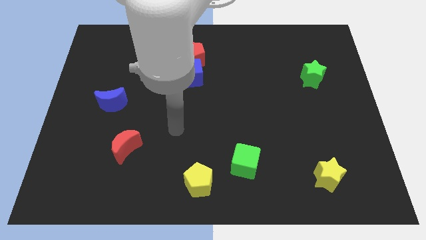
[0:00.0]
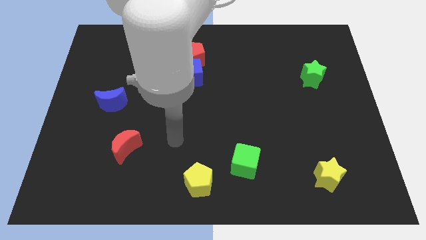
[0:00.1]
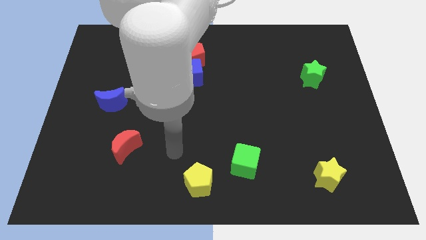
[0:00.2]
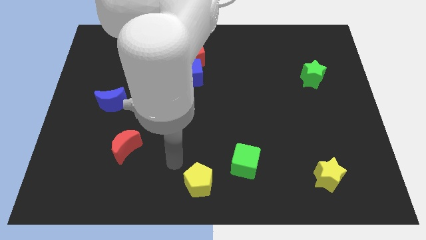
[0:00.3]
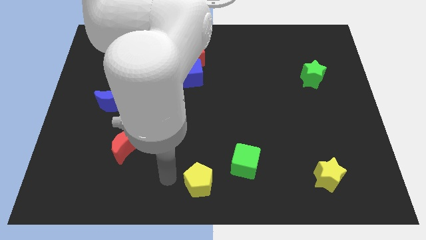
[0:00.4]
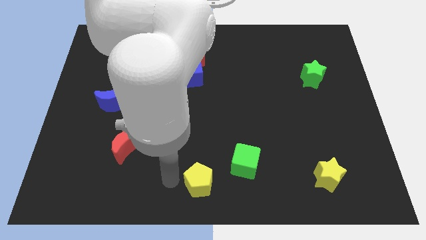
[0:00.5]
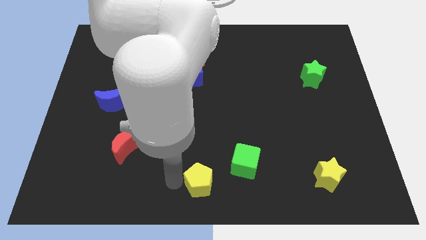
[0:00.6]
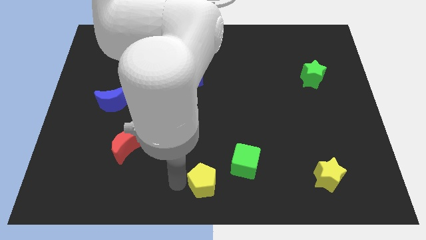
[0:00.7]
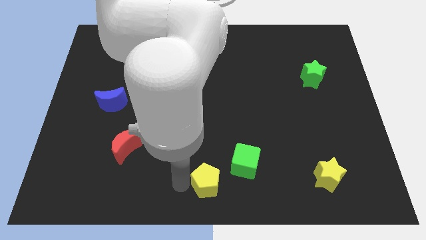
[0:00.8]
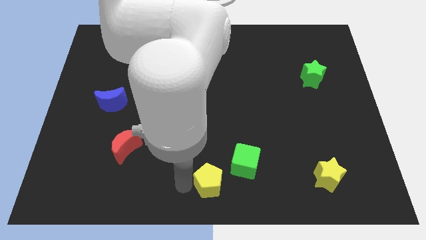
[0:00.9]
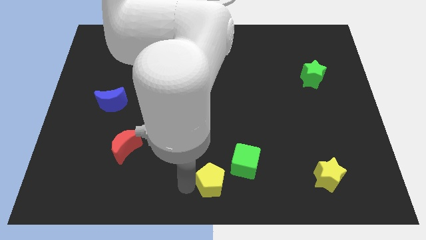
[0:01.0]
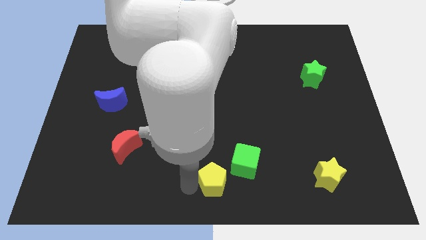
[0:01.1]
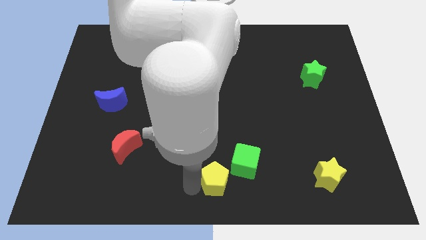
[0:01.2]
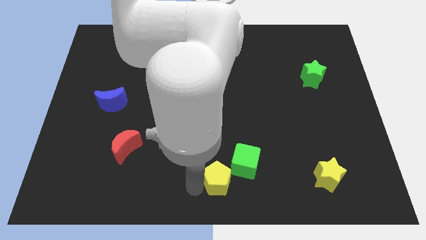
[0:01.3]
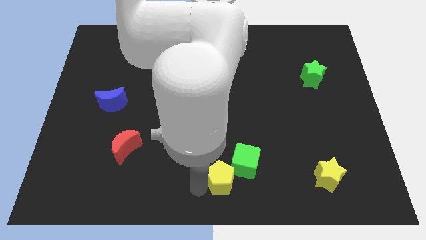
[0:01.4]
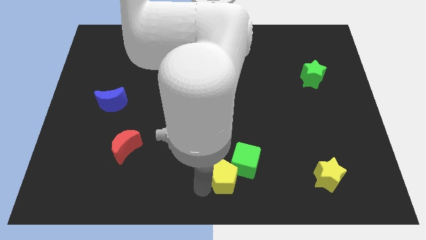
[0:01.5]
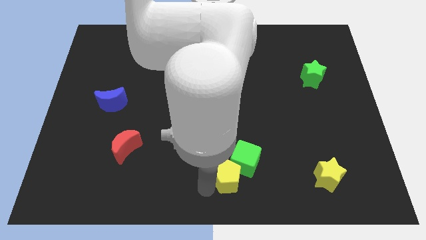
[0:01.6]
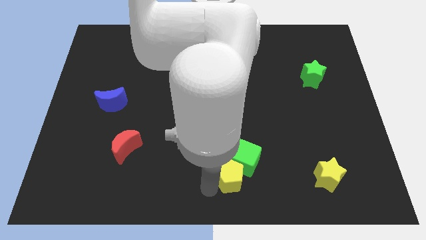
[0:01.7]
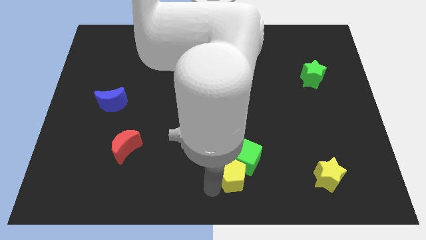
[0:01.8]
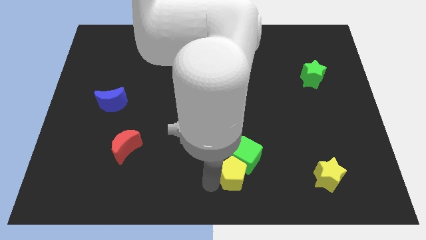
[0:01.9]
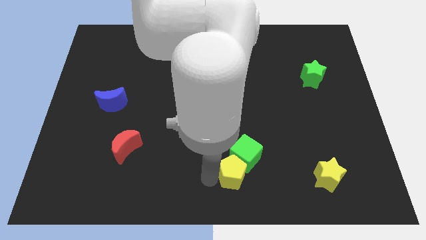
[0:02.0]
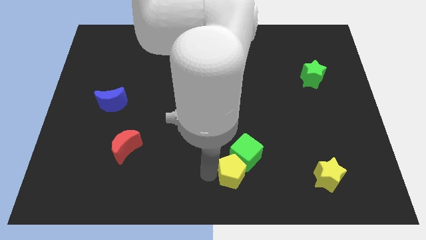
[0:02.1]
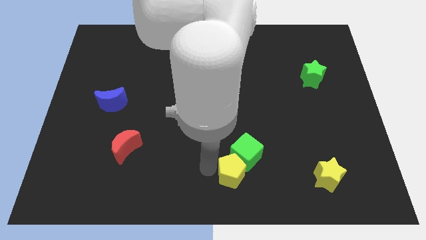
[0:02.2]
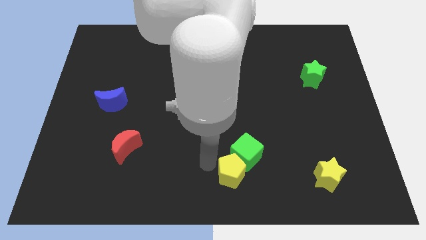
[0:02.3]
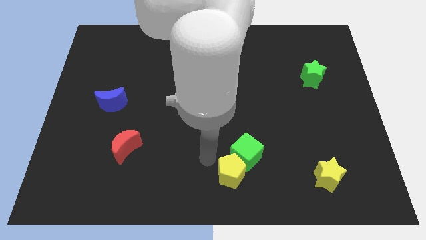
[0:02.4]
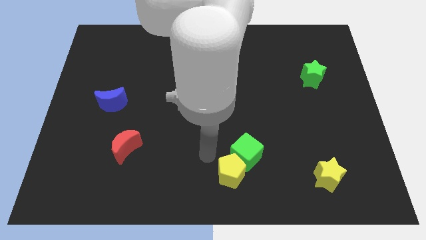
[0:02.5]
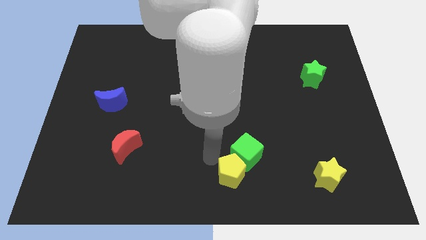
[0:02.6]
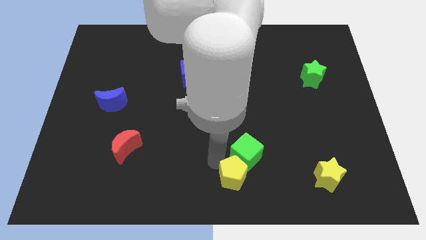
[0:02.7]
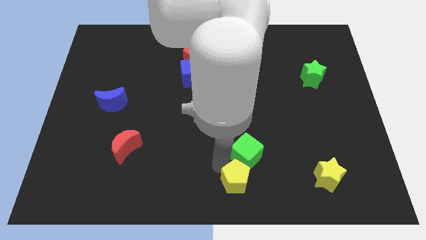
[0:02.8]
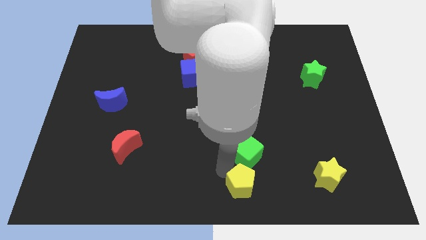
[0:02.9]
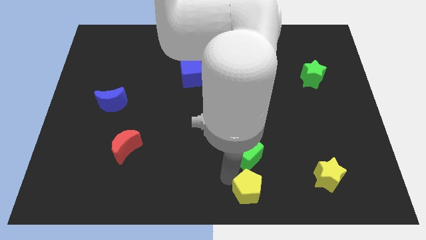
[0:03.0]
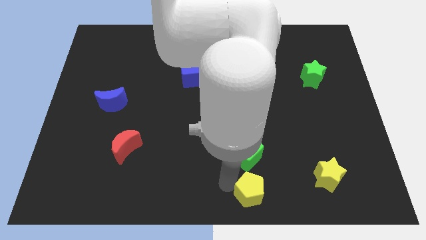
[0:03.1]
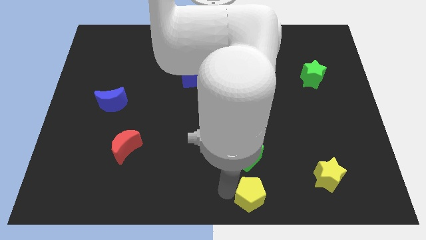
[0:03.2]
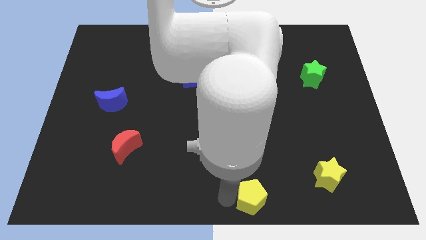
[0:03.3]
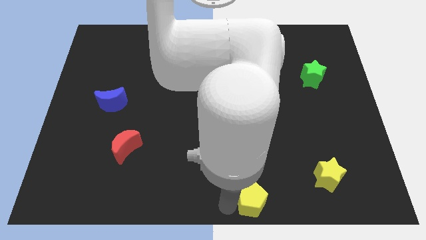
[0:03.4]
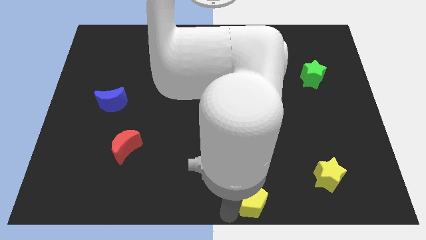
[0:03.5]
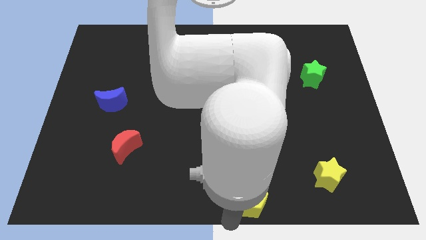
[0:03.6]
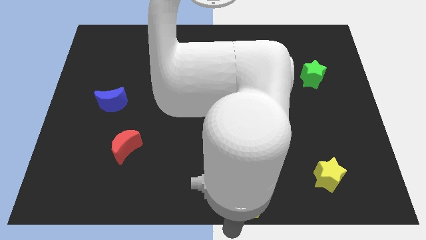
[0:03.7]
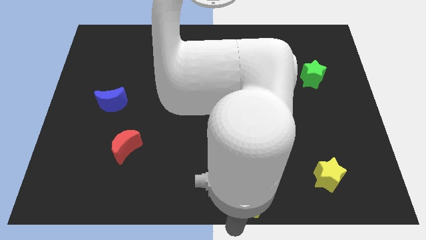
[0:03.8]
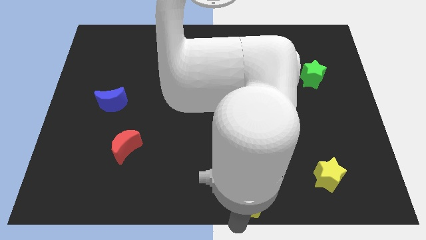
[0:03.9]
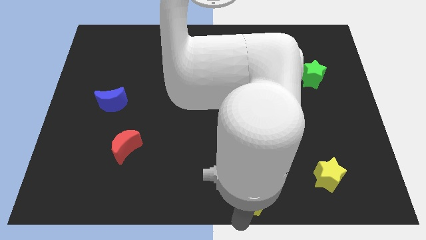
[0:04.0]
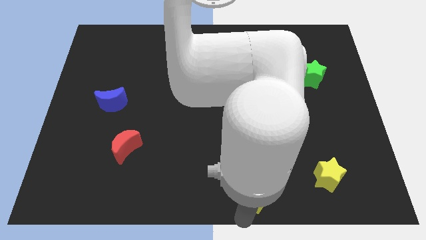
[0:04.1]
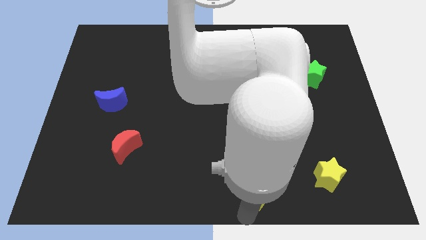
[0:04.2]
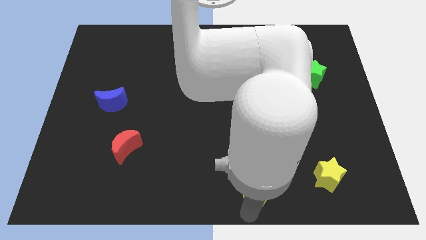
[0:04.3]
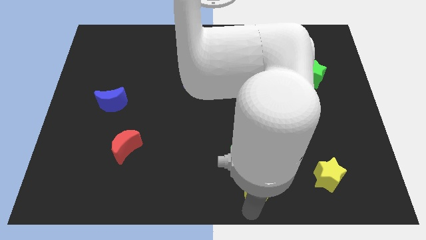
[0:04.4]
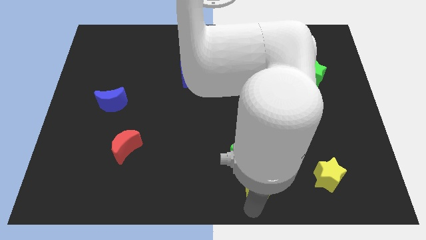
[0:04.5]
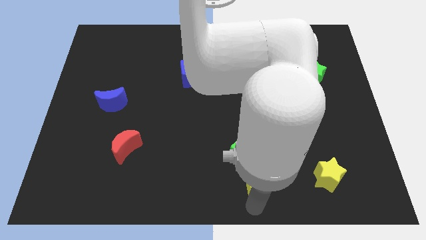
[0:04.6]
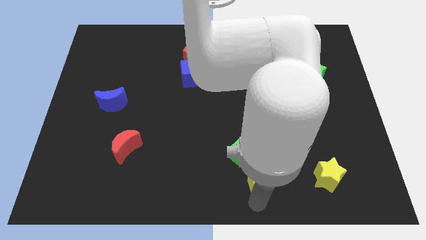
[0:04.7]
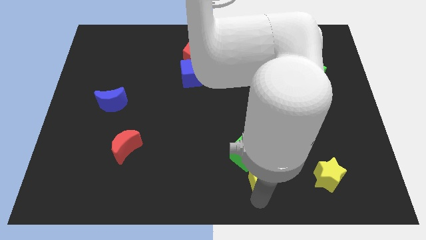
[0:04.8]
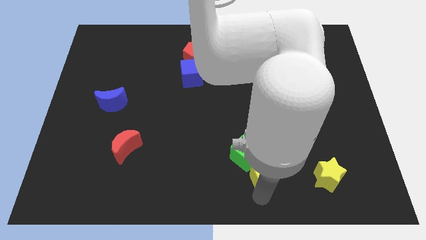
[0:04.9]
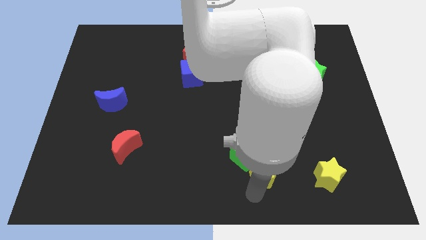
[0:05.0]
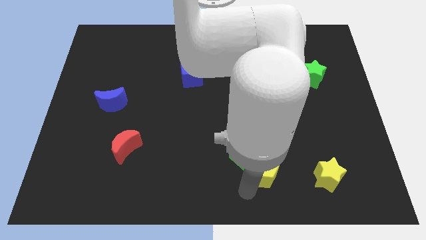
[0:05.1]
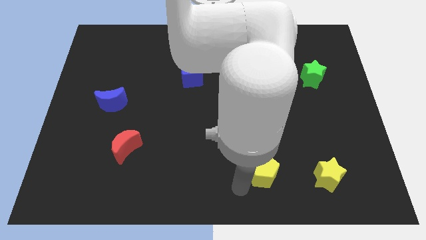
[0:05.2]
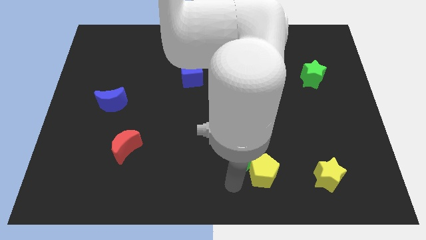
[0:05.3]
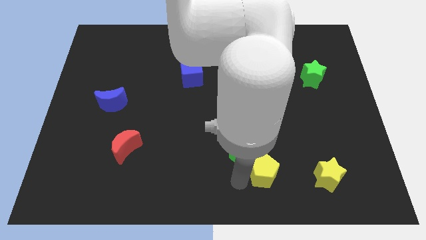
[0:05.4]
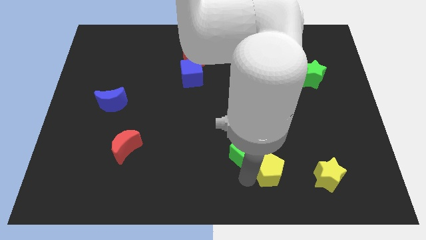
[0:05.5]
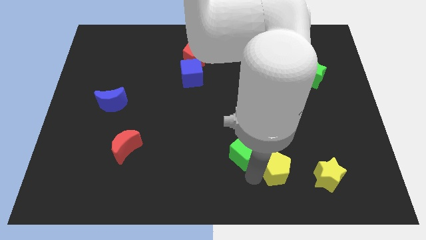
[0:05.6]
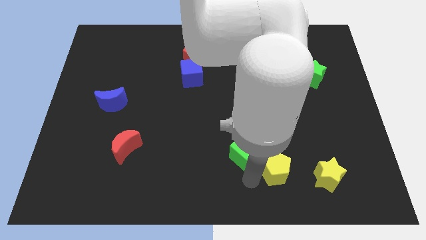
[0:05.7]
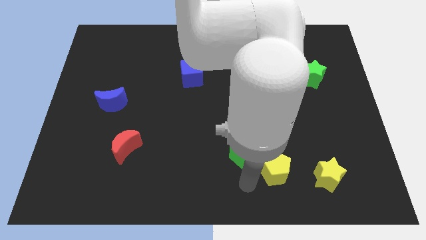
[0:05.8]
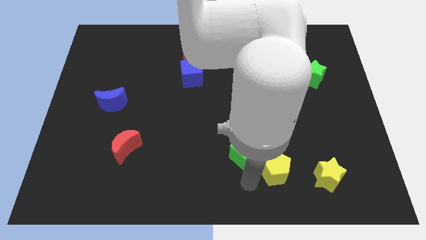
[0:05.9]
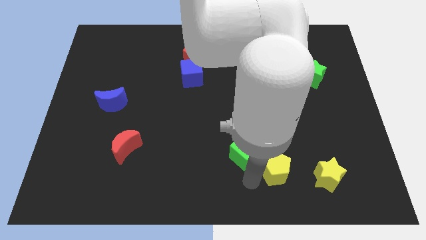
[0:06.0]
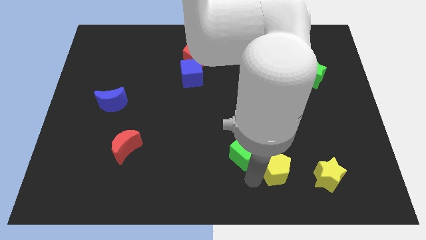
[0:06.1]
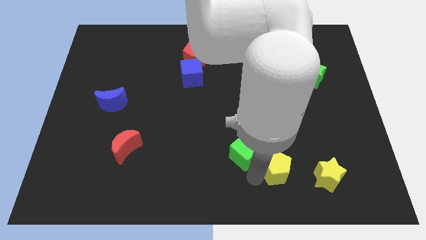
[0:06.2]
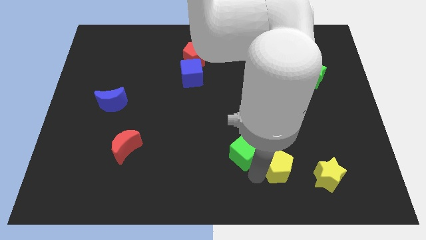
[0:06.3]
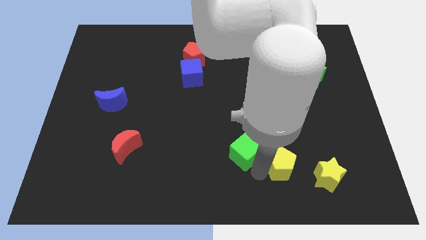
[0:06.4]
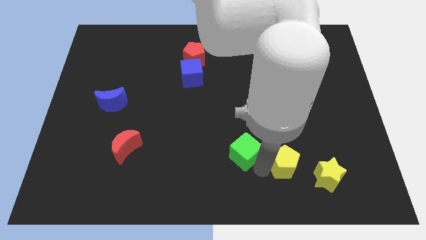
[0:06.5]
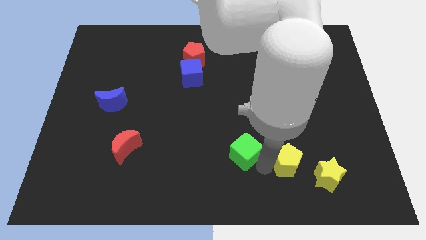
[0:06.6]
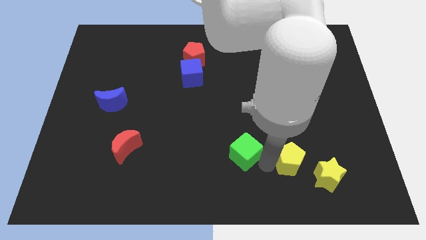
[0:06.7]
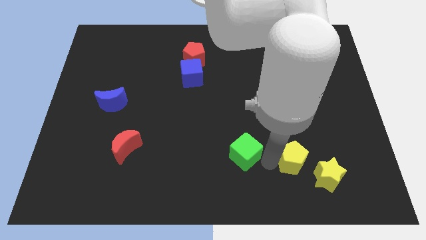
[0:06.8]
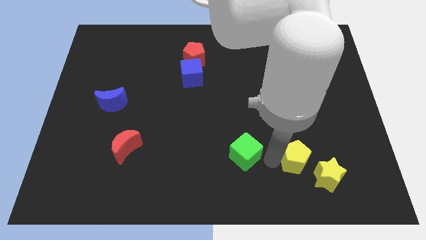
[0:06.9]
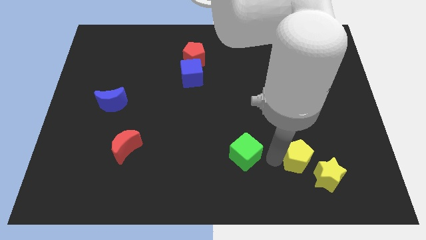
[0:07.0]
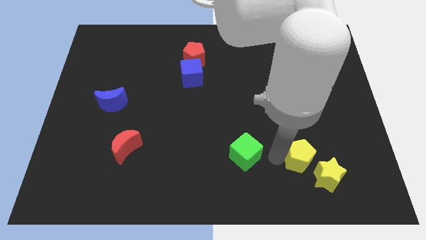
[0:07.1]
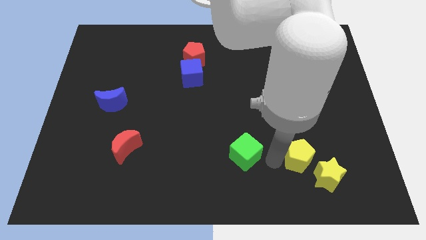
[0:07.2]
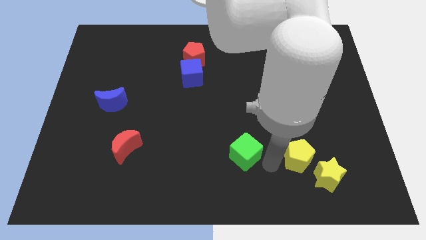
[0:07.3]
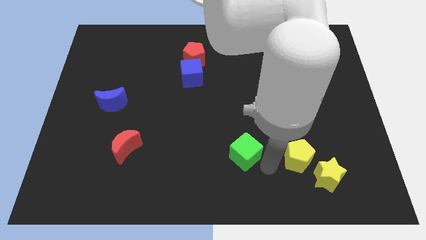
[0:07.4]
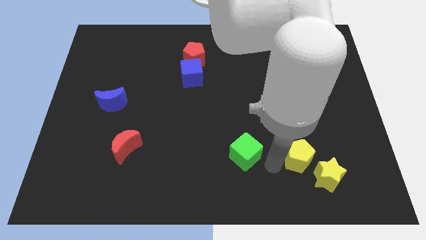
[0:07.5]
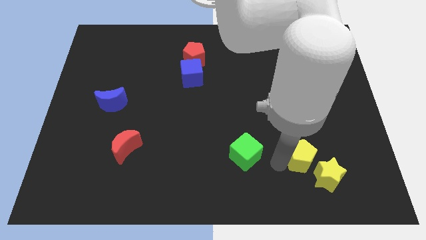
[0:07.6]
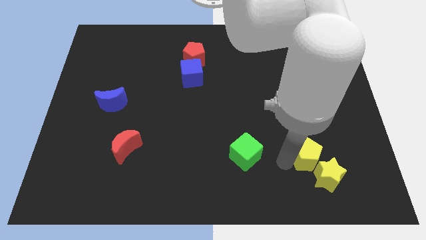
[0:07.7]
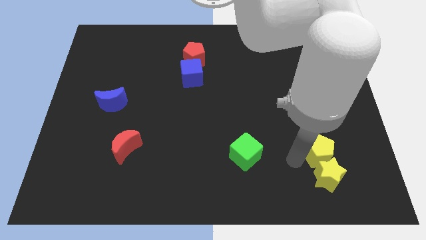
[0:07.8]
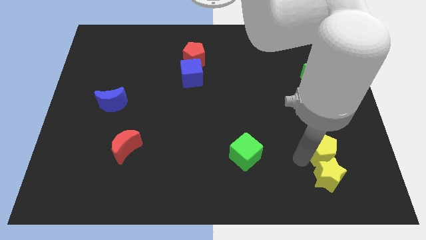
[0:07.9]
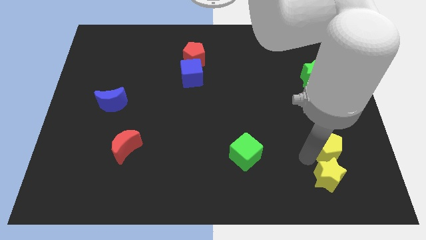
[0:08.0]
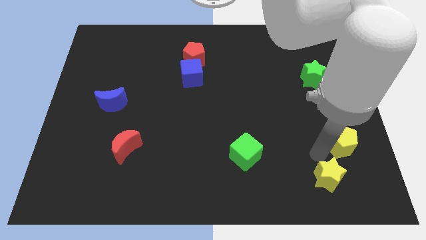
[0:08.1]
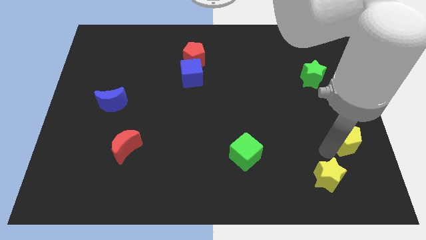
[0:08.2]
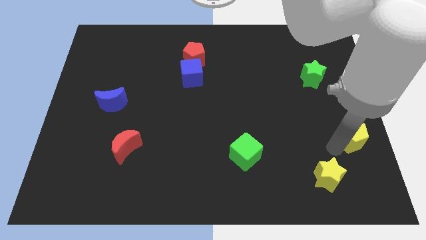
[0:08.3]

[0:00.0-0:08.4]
put the yellow pentagon to the right side
